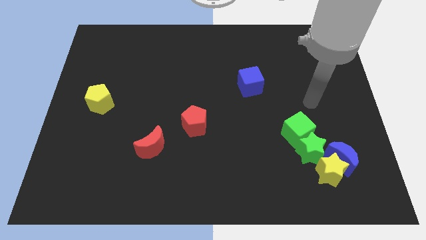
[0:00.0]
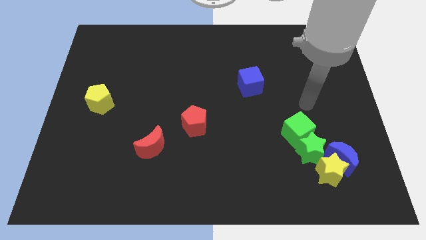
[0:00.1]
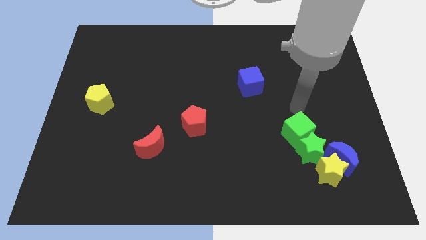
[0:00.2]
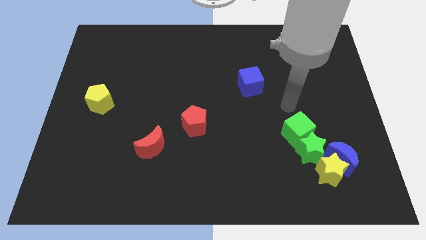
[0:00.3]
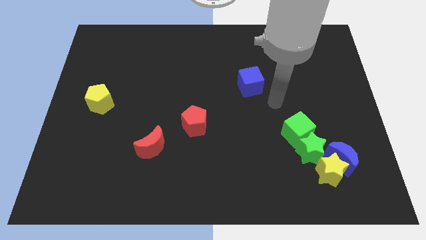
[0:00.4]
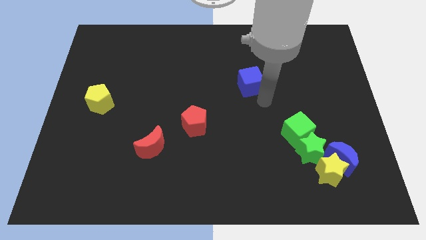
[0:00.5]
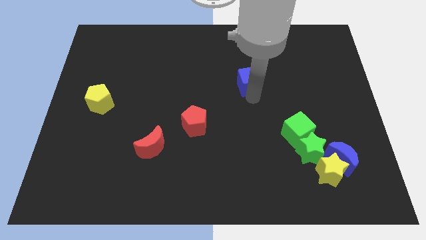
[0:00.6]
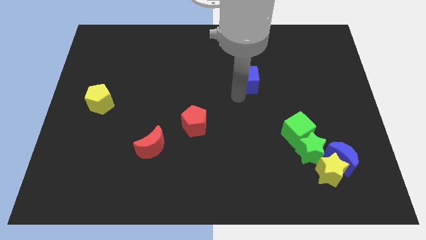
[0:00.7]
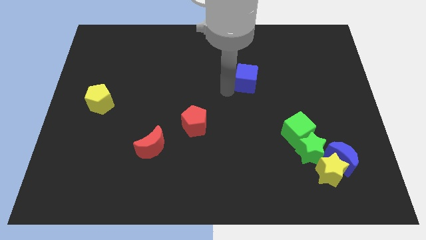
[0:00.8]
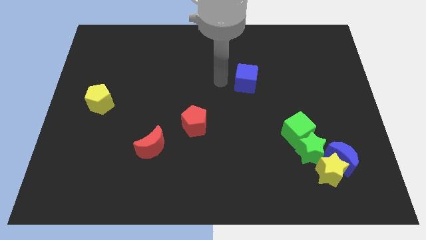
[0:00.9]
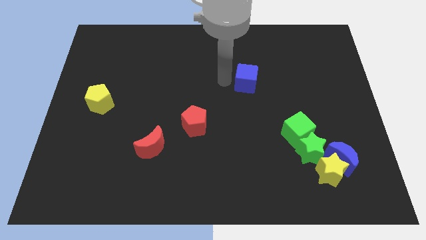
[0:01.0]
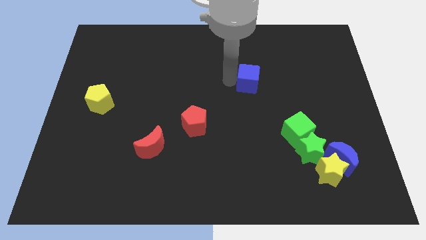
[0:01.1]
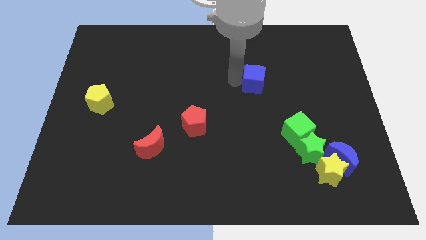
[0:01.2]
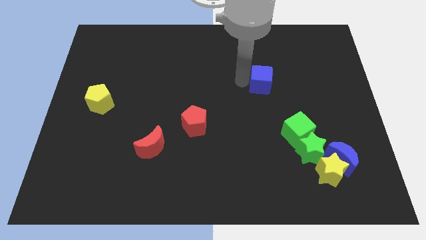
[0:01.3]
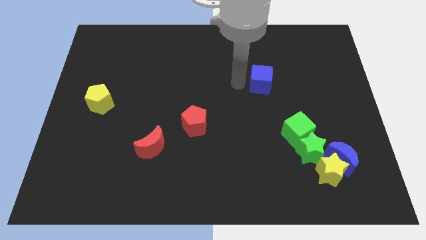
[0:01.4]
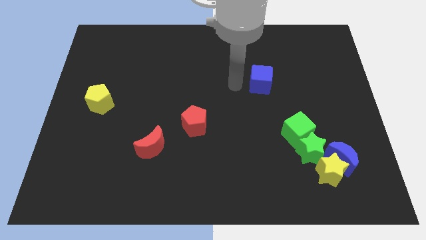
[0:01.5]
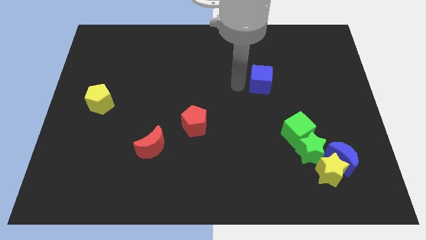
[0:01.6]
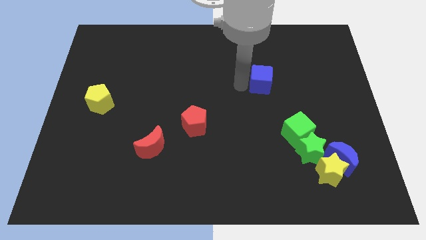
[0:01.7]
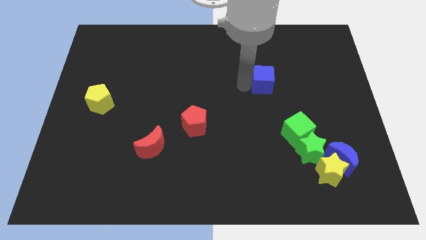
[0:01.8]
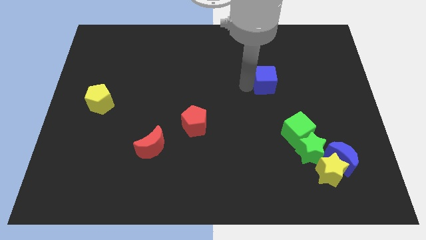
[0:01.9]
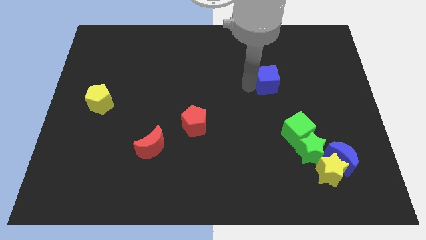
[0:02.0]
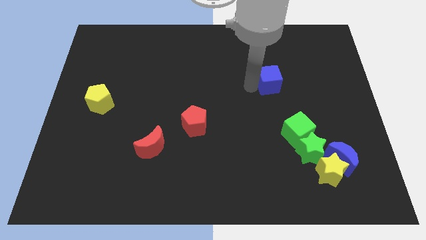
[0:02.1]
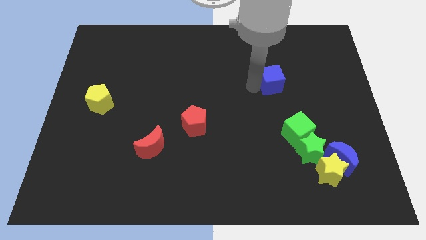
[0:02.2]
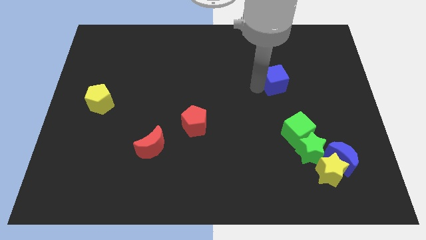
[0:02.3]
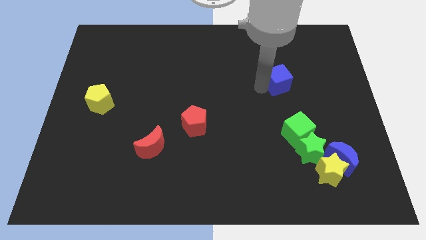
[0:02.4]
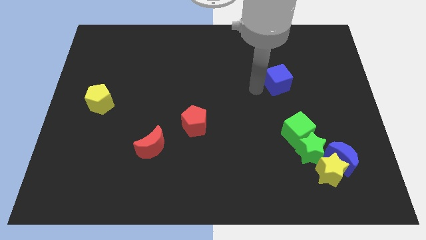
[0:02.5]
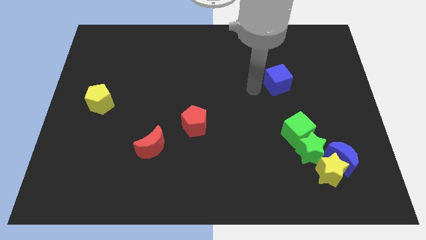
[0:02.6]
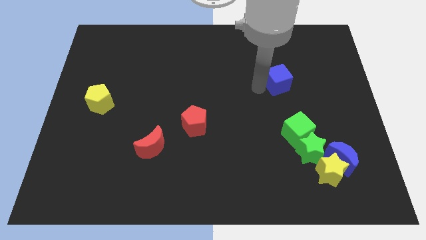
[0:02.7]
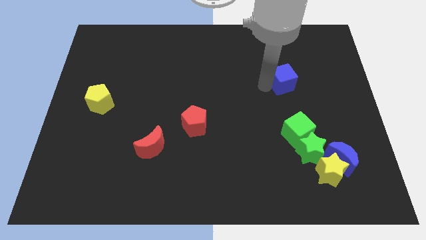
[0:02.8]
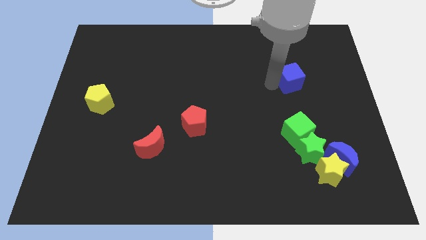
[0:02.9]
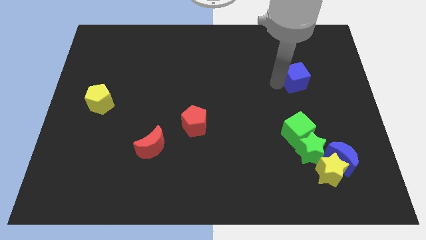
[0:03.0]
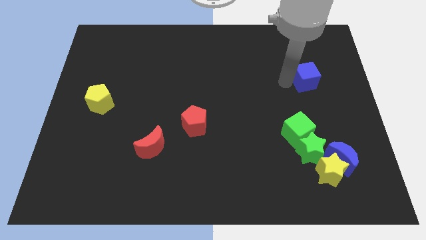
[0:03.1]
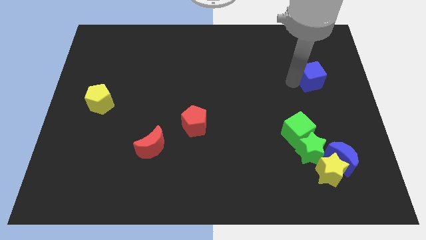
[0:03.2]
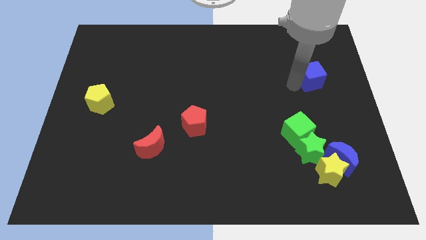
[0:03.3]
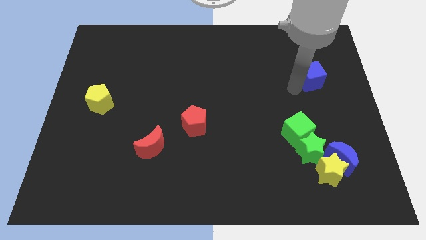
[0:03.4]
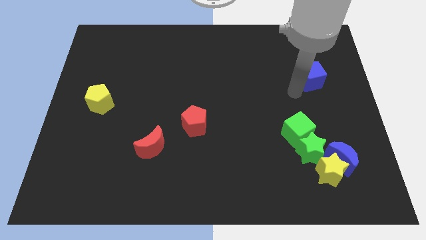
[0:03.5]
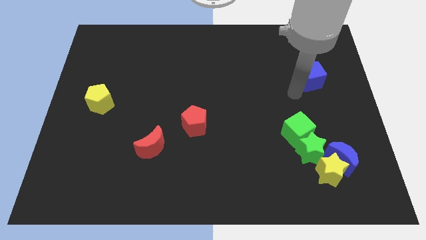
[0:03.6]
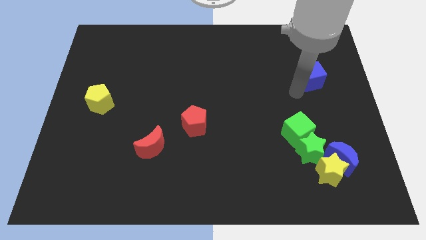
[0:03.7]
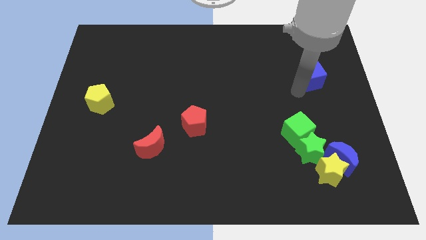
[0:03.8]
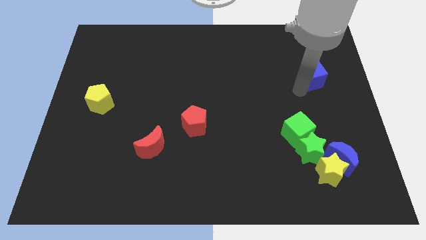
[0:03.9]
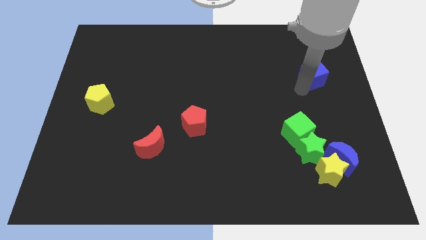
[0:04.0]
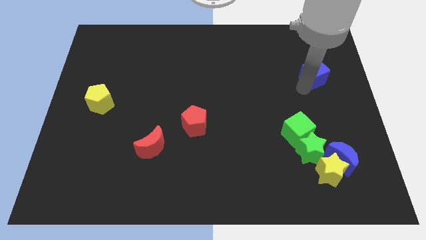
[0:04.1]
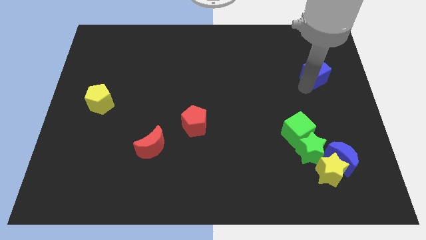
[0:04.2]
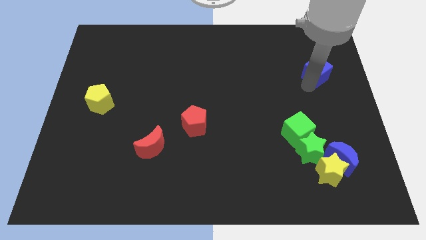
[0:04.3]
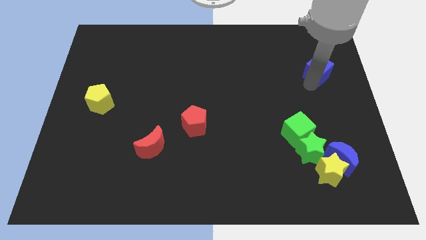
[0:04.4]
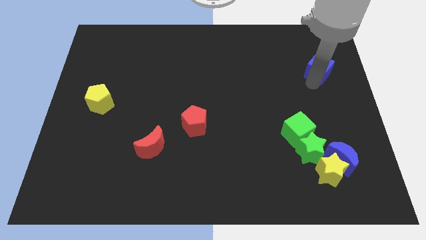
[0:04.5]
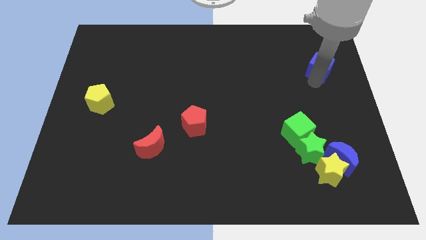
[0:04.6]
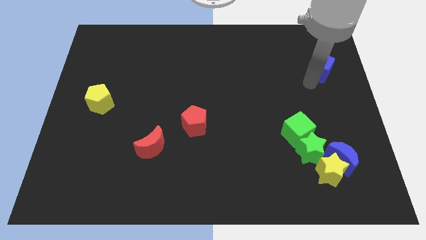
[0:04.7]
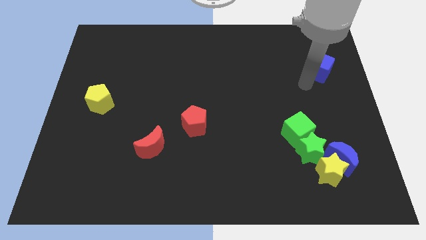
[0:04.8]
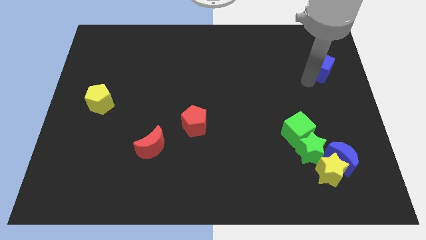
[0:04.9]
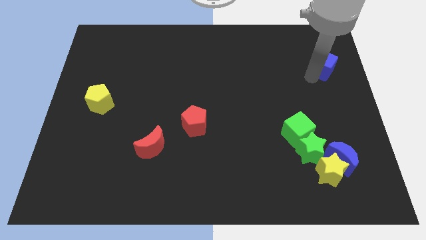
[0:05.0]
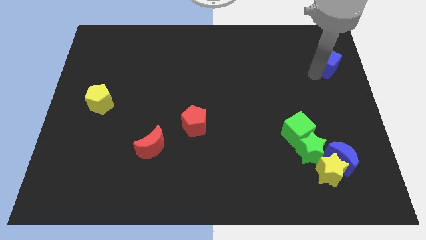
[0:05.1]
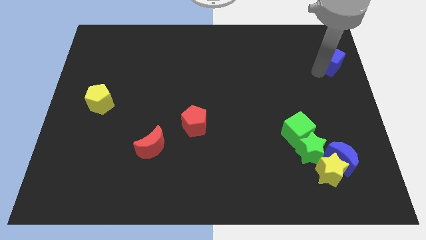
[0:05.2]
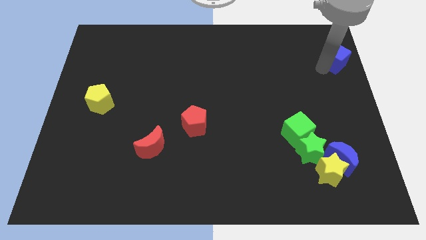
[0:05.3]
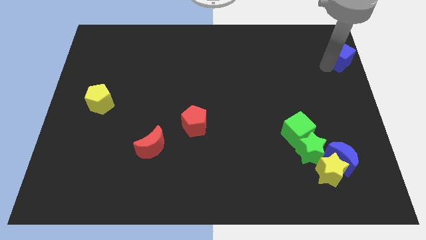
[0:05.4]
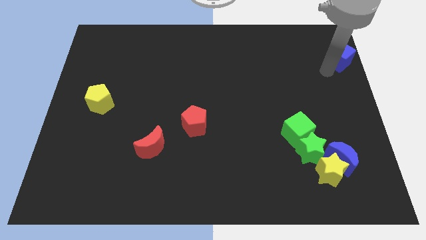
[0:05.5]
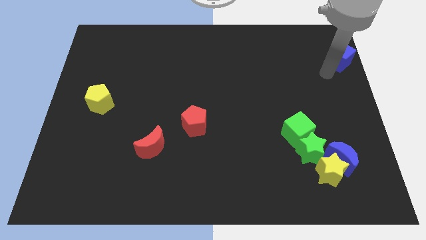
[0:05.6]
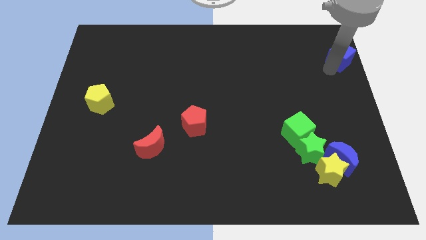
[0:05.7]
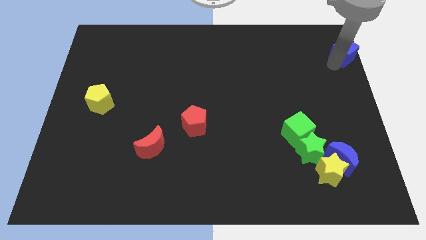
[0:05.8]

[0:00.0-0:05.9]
slide the blue cube to the top right of the board

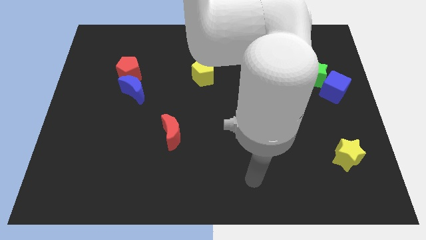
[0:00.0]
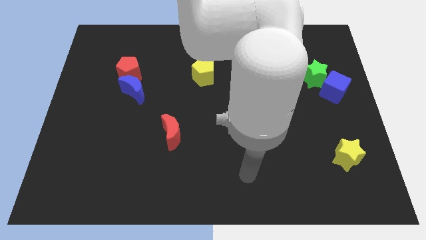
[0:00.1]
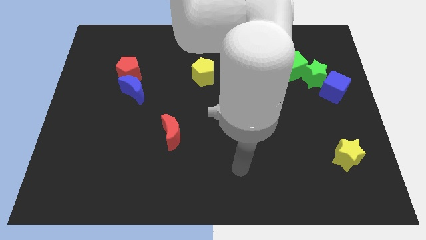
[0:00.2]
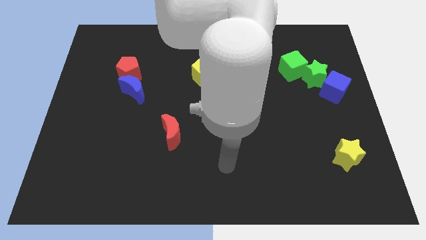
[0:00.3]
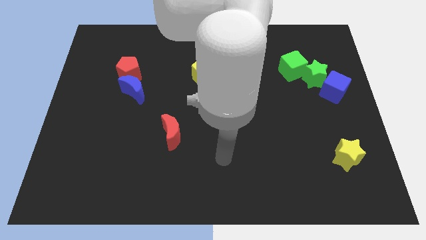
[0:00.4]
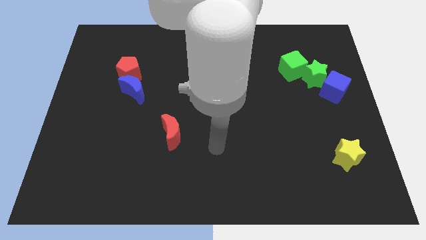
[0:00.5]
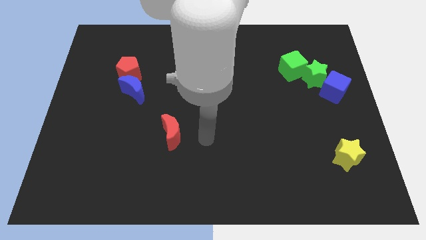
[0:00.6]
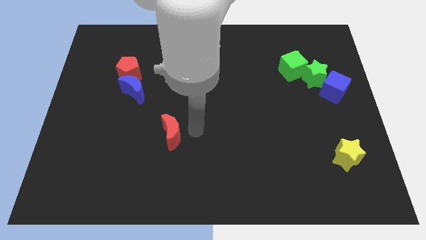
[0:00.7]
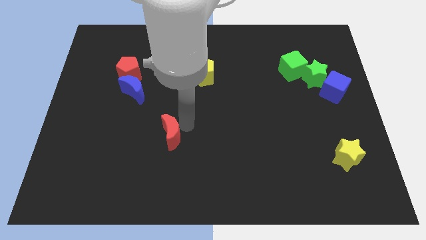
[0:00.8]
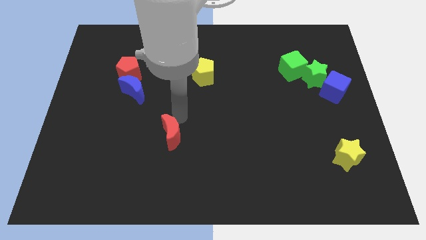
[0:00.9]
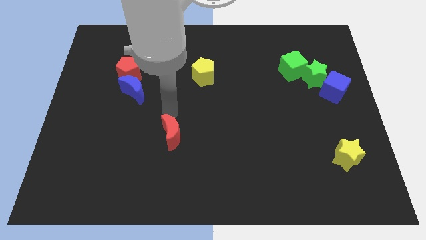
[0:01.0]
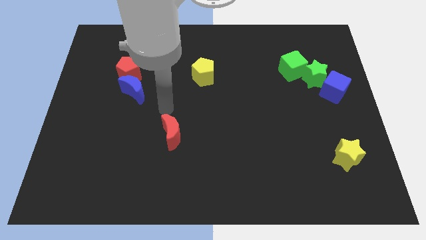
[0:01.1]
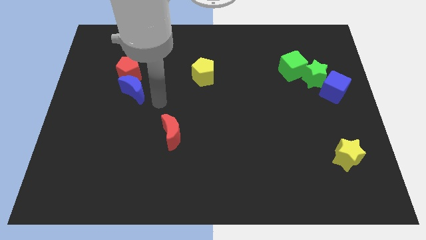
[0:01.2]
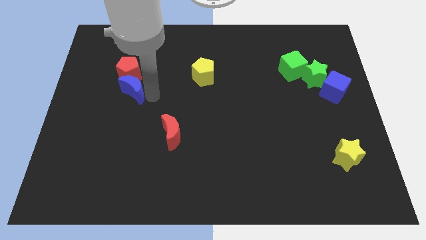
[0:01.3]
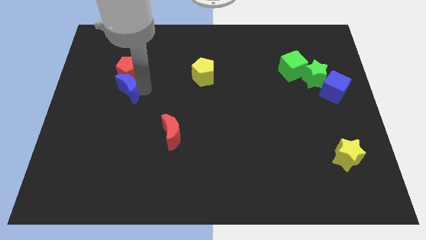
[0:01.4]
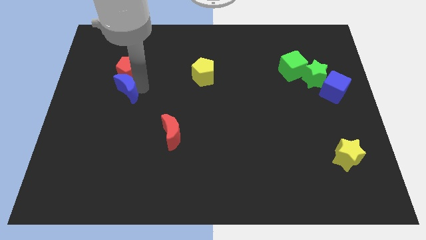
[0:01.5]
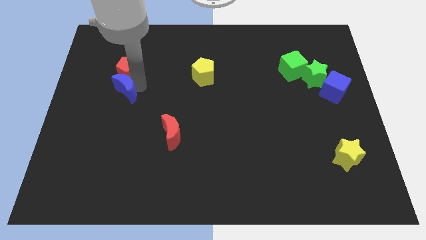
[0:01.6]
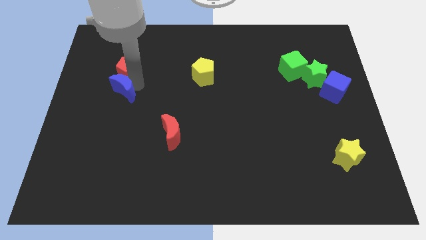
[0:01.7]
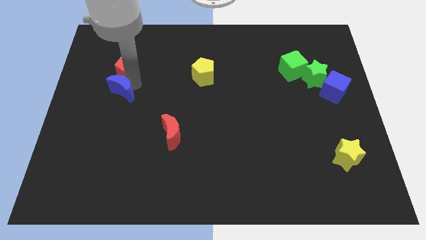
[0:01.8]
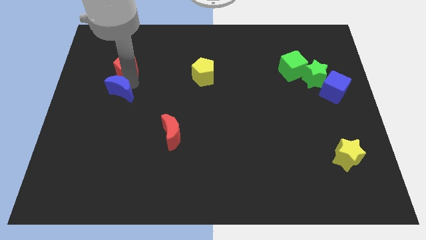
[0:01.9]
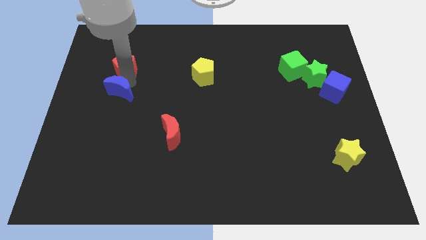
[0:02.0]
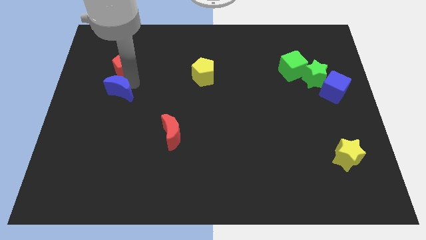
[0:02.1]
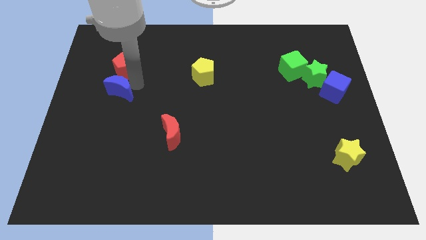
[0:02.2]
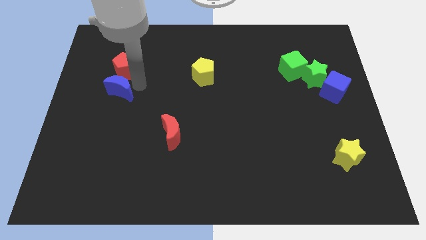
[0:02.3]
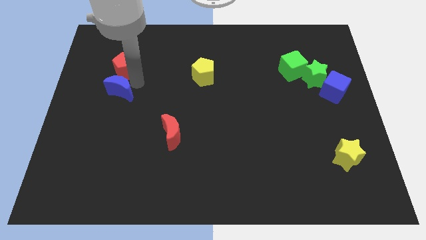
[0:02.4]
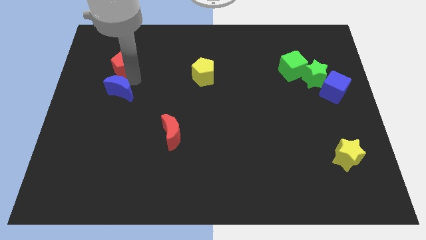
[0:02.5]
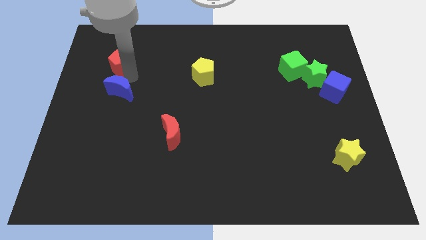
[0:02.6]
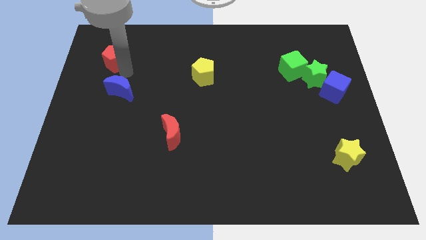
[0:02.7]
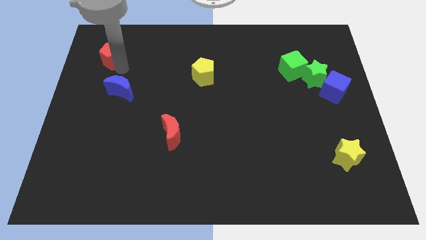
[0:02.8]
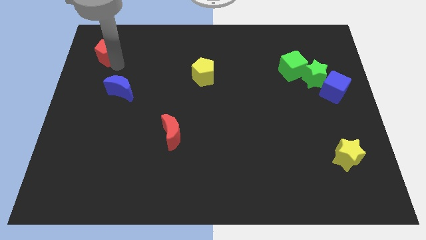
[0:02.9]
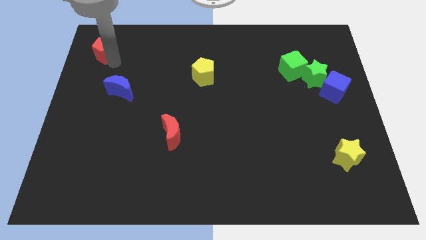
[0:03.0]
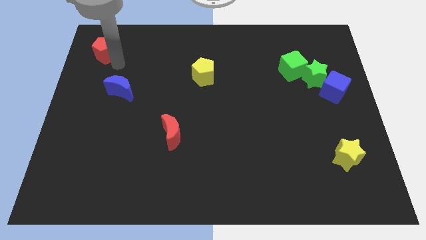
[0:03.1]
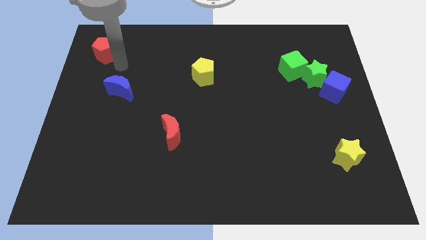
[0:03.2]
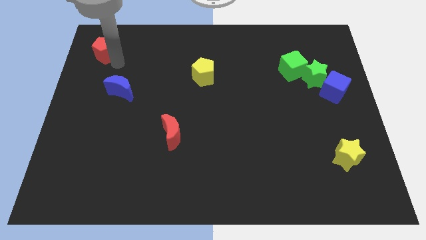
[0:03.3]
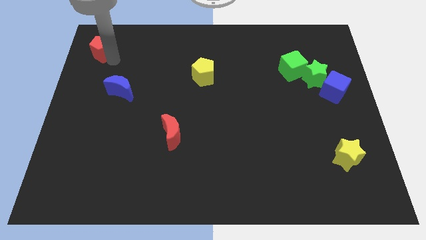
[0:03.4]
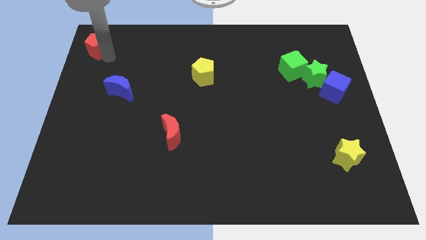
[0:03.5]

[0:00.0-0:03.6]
put the red pentagon to the top left corner
